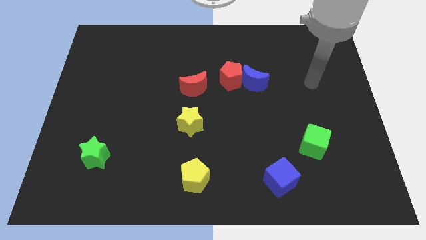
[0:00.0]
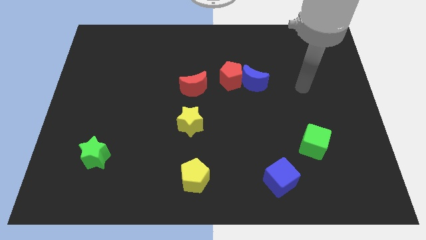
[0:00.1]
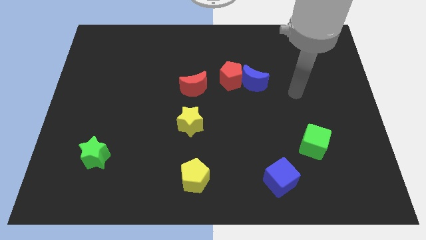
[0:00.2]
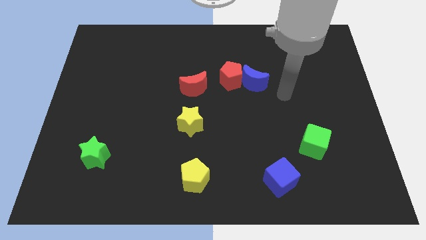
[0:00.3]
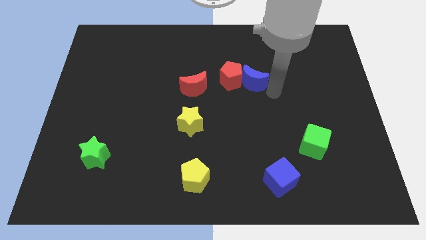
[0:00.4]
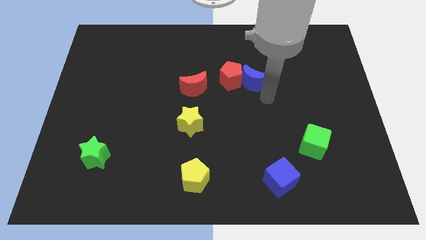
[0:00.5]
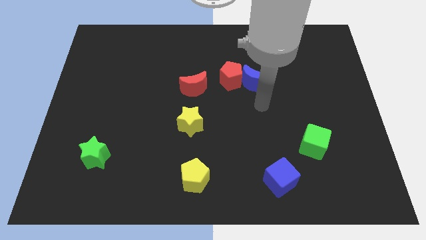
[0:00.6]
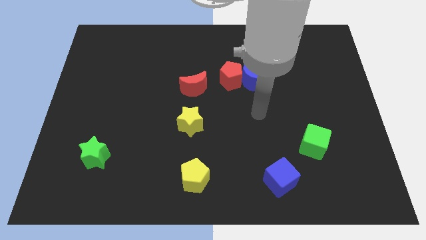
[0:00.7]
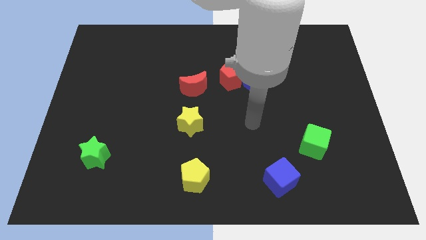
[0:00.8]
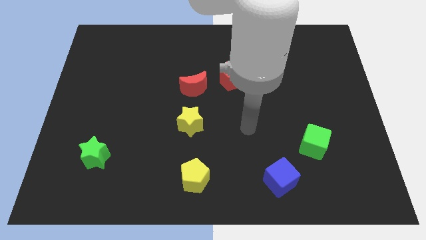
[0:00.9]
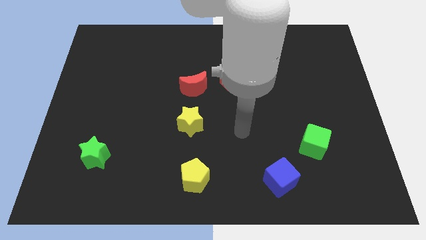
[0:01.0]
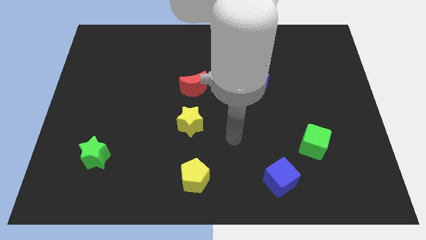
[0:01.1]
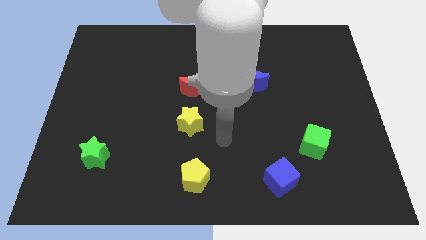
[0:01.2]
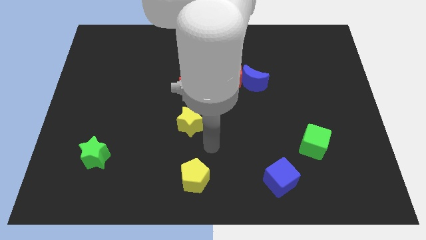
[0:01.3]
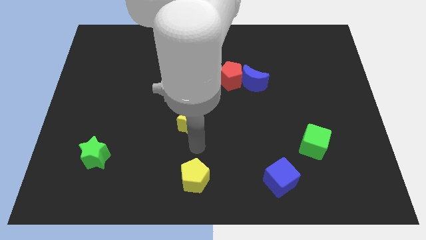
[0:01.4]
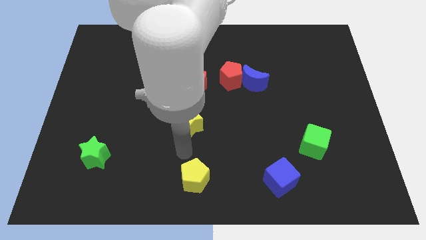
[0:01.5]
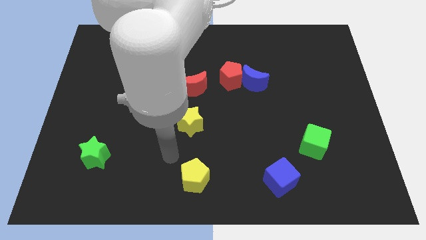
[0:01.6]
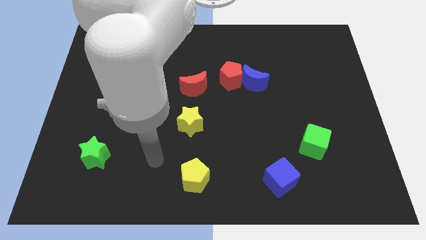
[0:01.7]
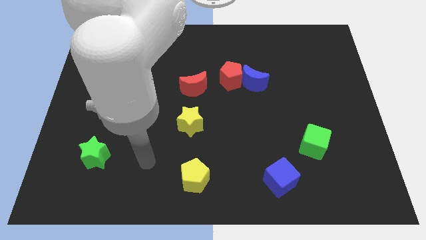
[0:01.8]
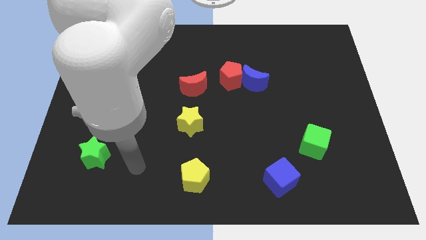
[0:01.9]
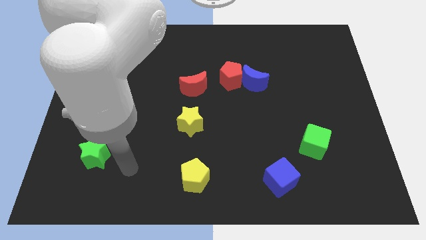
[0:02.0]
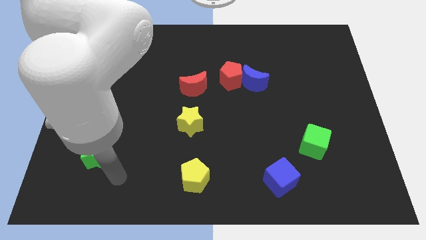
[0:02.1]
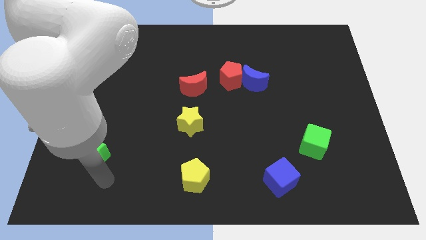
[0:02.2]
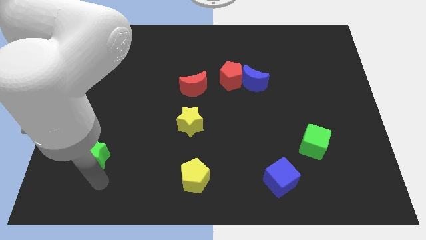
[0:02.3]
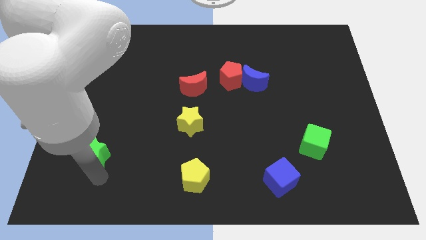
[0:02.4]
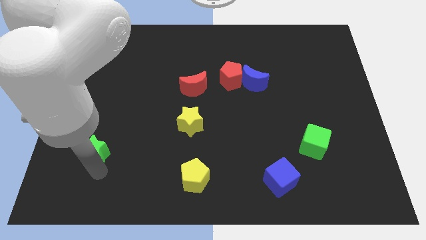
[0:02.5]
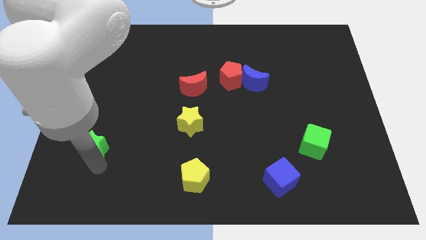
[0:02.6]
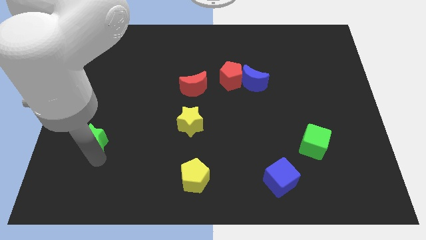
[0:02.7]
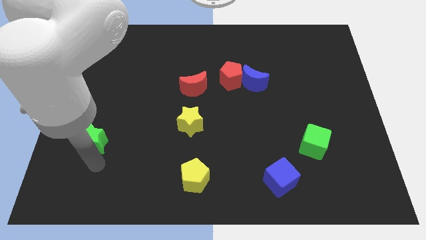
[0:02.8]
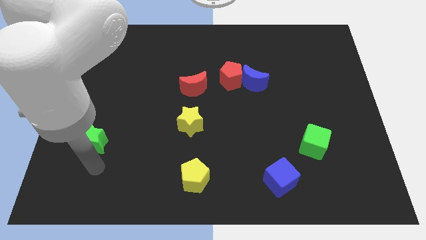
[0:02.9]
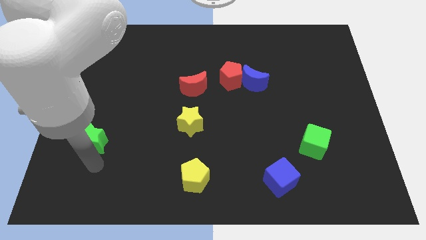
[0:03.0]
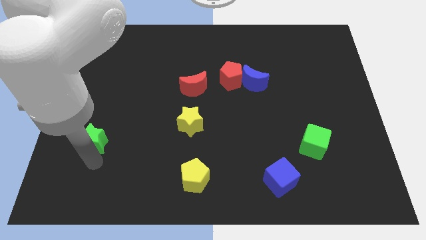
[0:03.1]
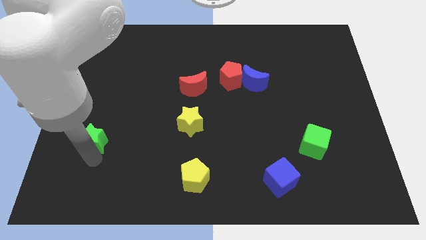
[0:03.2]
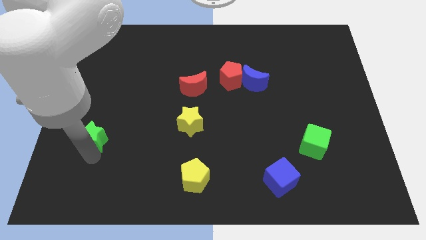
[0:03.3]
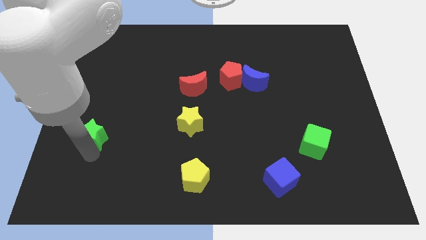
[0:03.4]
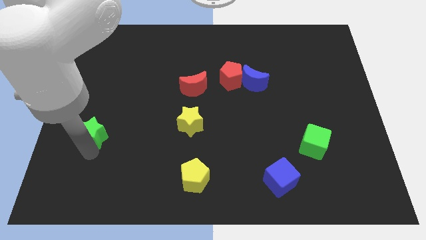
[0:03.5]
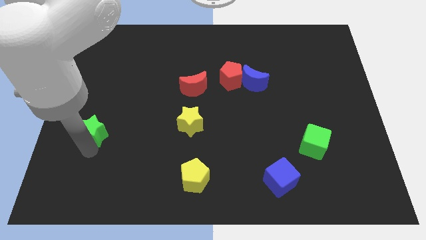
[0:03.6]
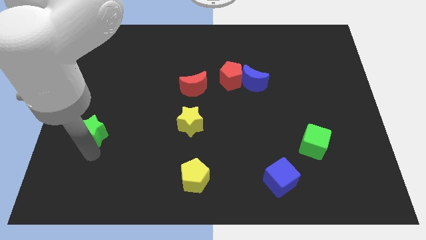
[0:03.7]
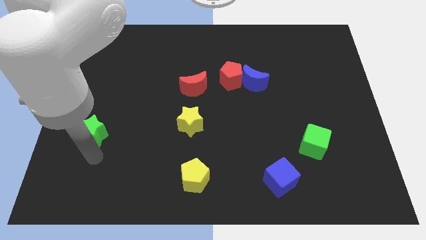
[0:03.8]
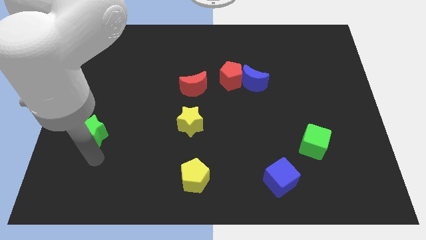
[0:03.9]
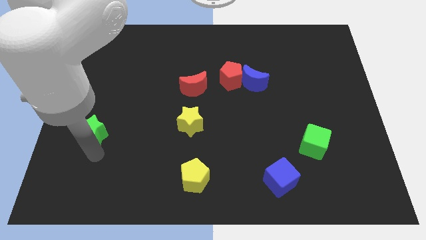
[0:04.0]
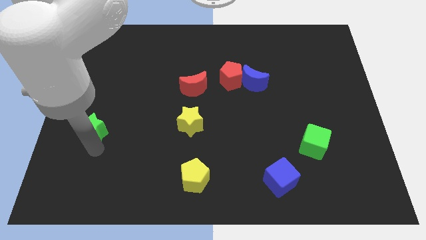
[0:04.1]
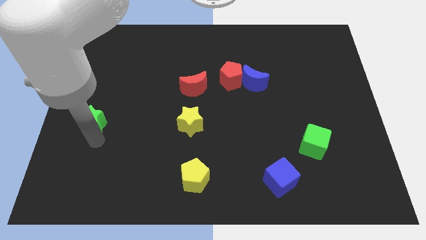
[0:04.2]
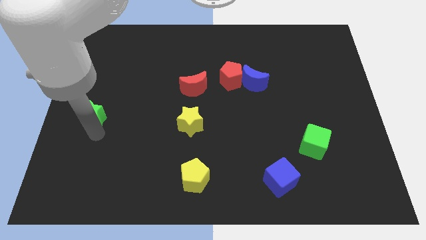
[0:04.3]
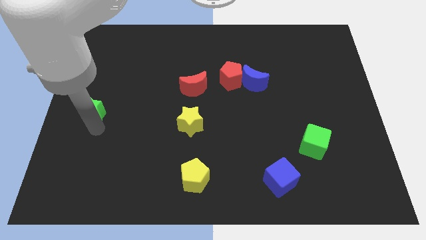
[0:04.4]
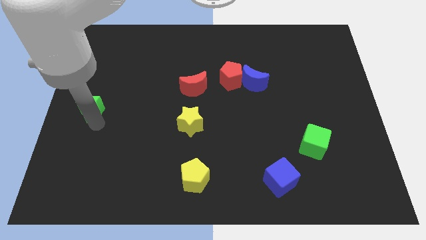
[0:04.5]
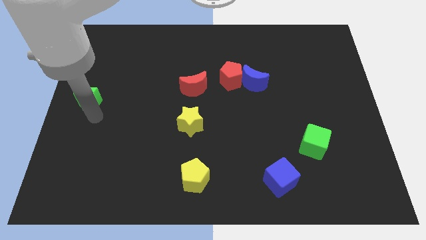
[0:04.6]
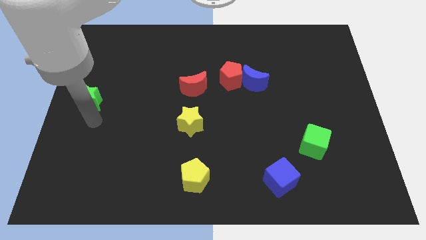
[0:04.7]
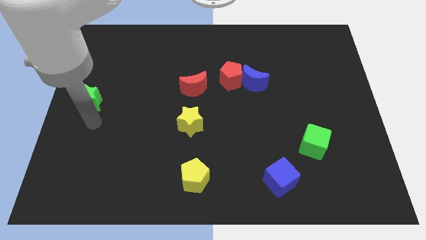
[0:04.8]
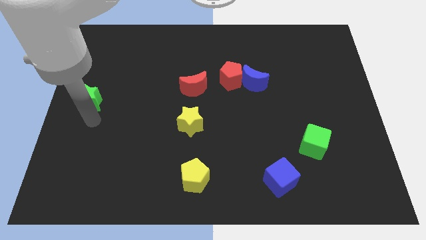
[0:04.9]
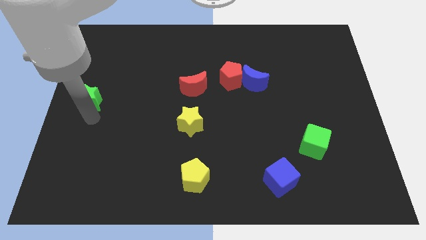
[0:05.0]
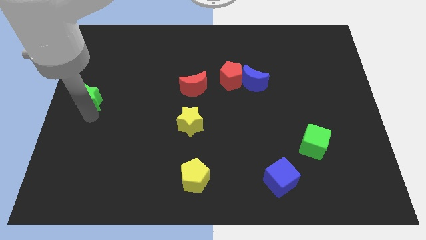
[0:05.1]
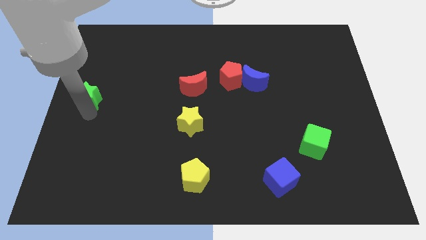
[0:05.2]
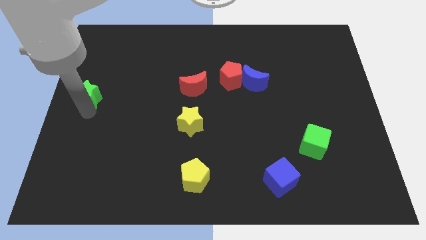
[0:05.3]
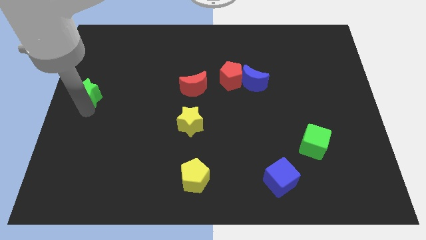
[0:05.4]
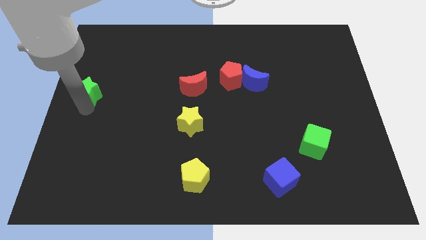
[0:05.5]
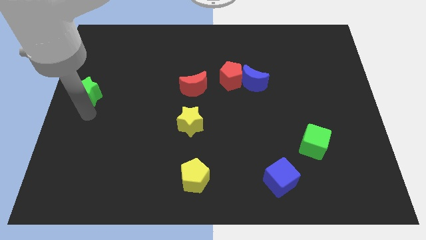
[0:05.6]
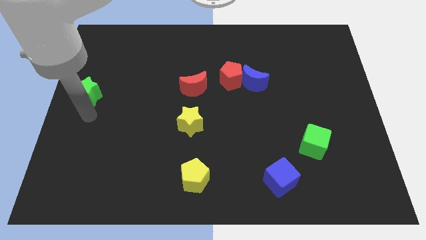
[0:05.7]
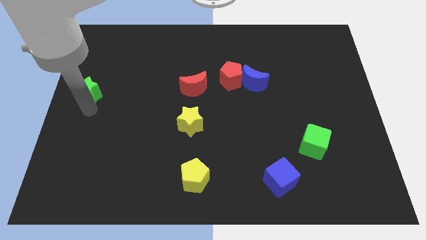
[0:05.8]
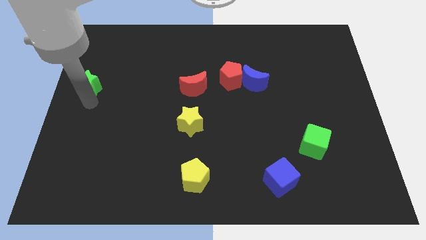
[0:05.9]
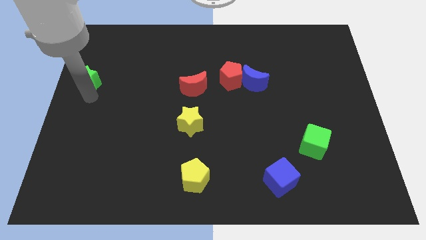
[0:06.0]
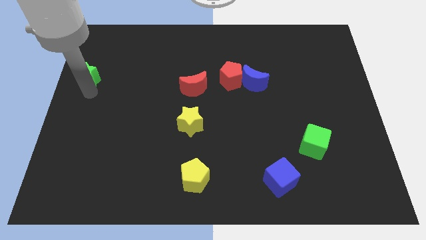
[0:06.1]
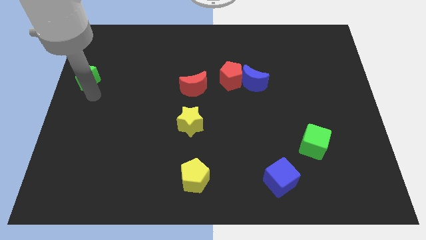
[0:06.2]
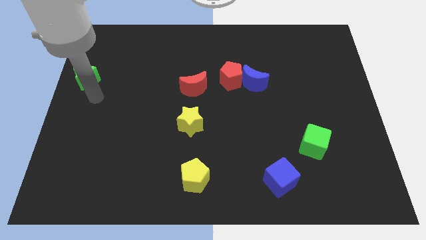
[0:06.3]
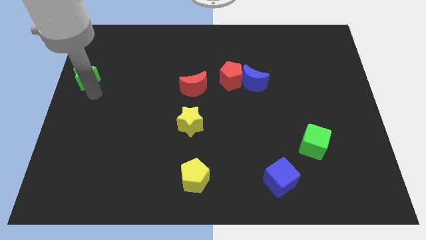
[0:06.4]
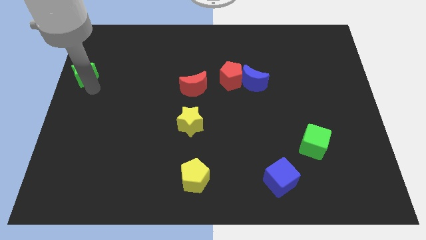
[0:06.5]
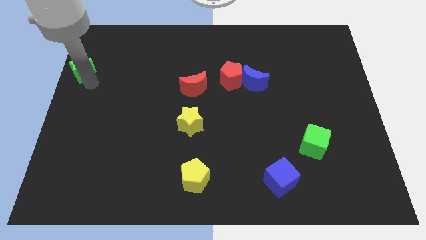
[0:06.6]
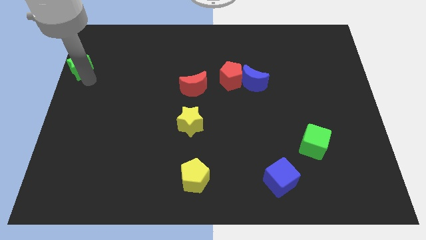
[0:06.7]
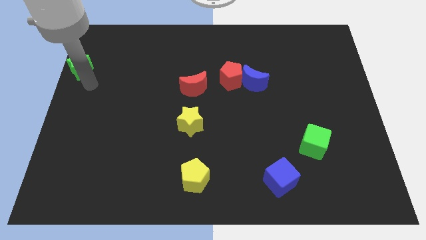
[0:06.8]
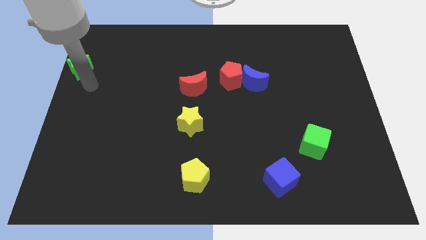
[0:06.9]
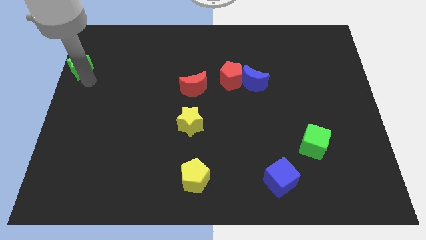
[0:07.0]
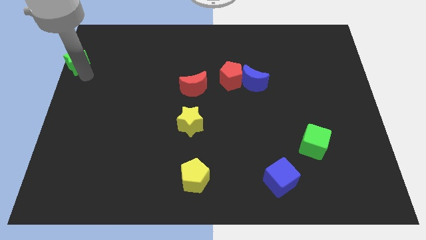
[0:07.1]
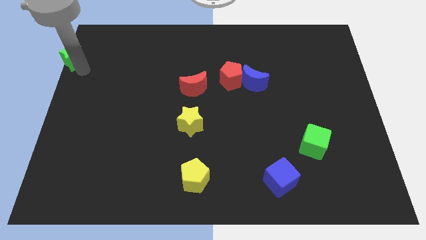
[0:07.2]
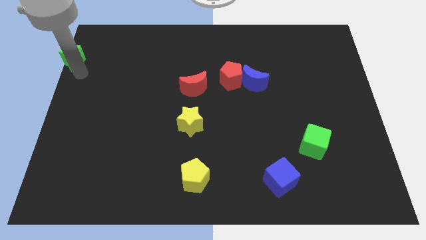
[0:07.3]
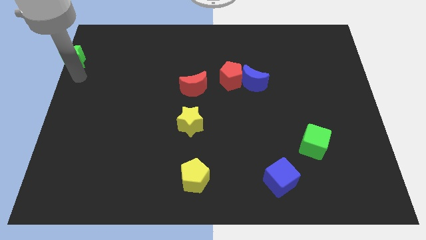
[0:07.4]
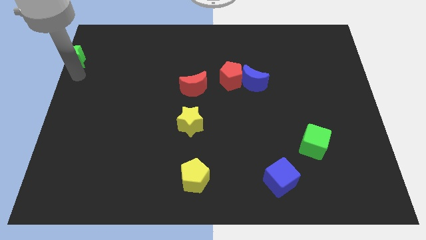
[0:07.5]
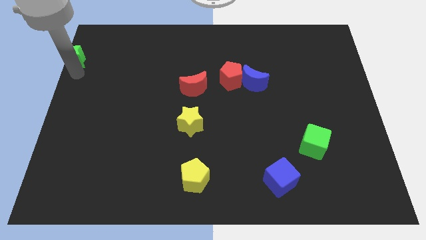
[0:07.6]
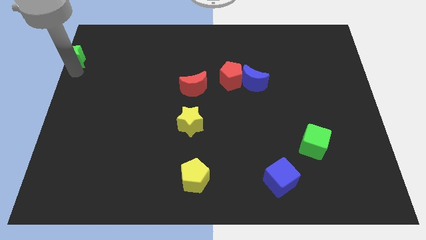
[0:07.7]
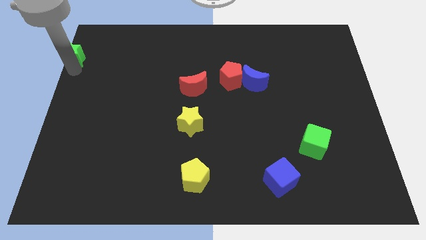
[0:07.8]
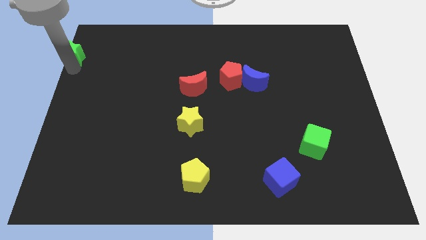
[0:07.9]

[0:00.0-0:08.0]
slide the green star to the top left corner
